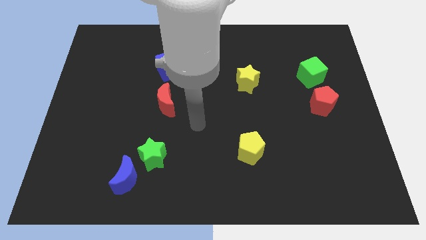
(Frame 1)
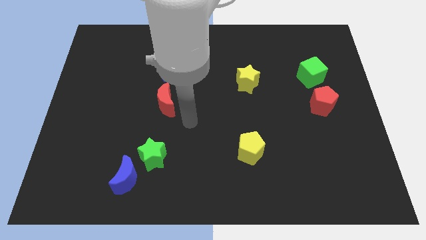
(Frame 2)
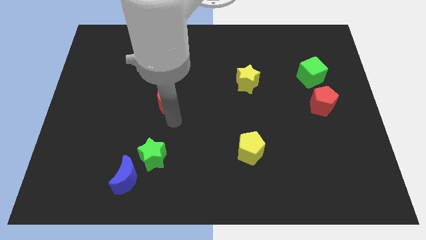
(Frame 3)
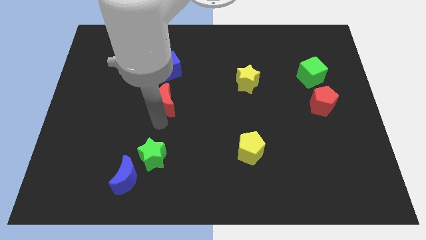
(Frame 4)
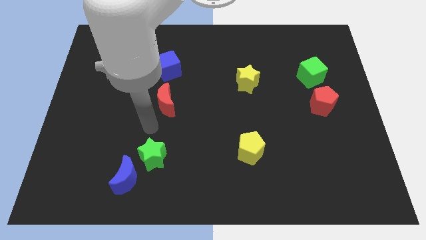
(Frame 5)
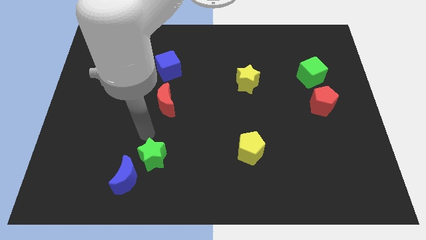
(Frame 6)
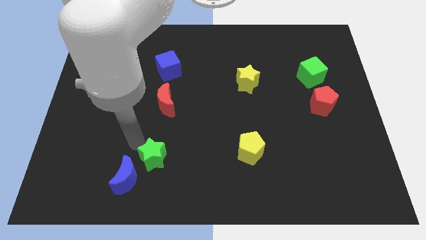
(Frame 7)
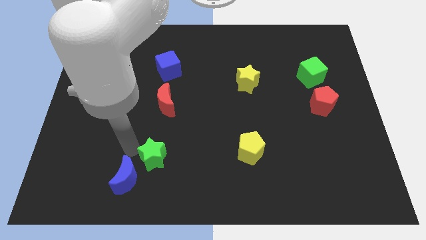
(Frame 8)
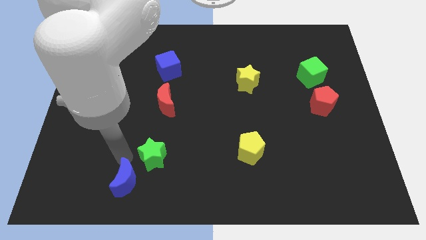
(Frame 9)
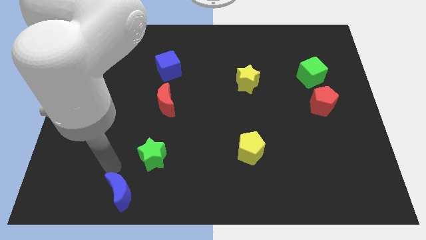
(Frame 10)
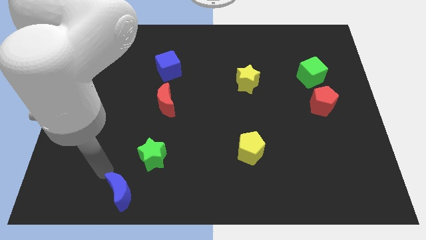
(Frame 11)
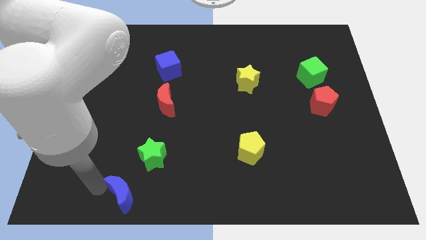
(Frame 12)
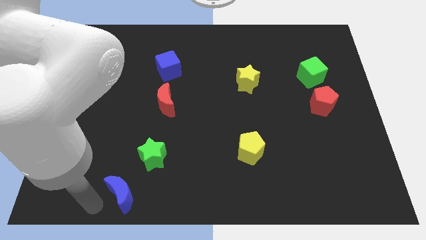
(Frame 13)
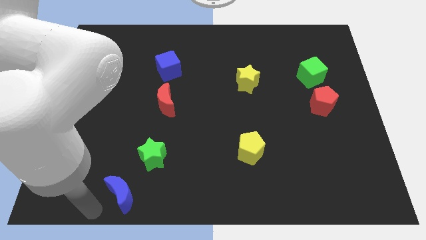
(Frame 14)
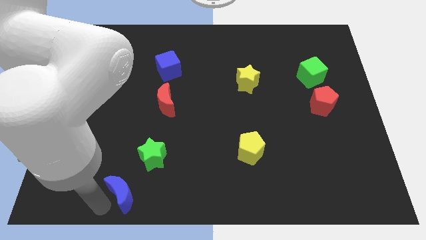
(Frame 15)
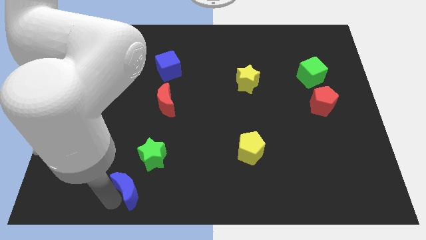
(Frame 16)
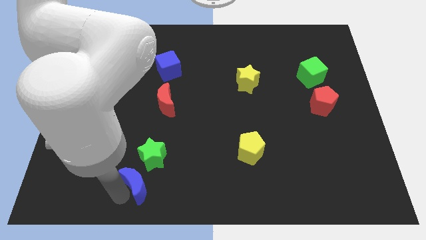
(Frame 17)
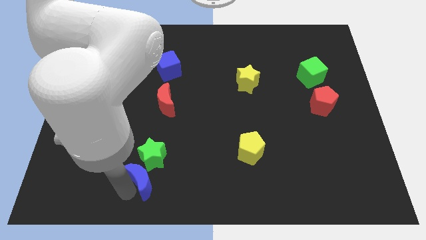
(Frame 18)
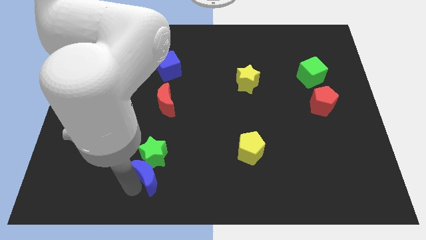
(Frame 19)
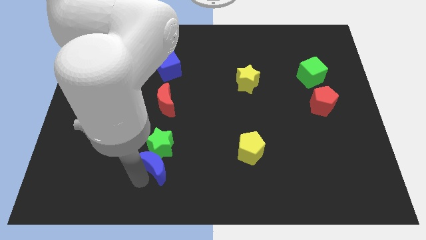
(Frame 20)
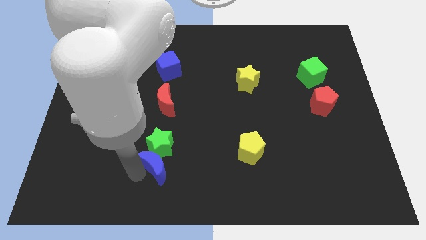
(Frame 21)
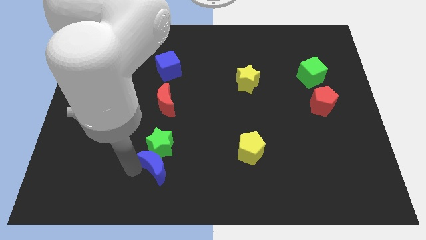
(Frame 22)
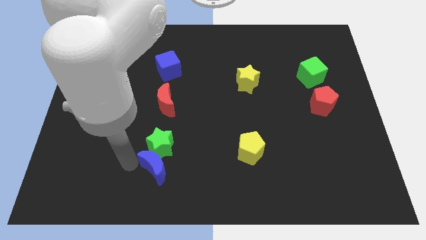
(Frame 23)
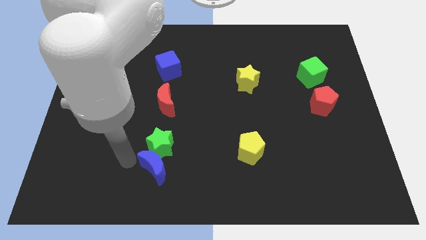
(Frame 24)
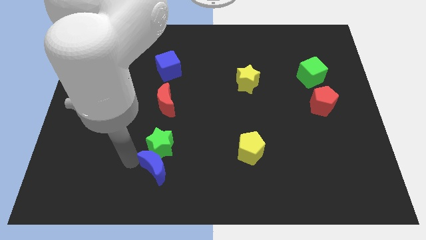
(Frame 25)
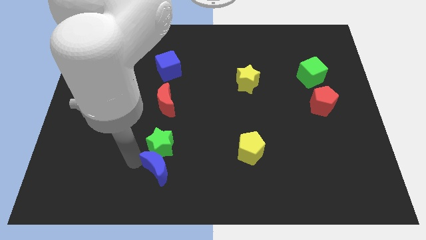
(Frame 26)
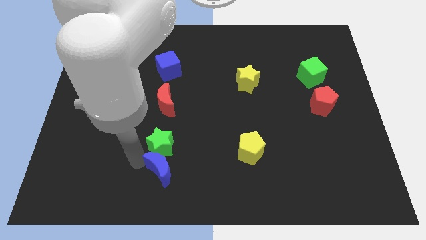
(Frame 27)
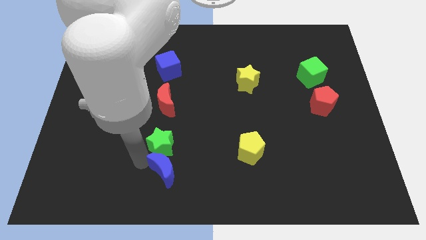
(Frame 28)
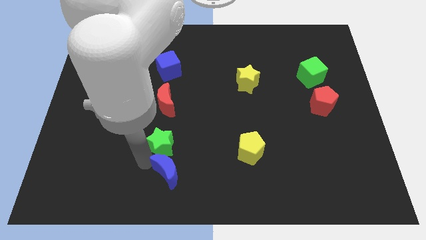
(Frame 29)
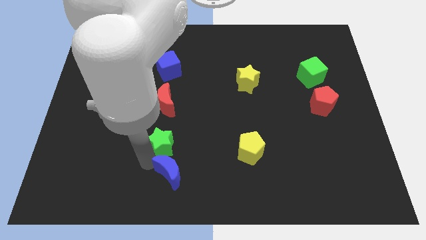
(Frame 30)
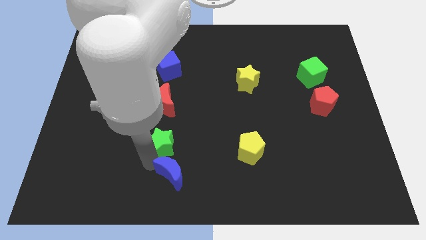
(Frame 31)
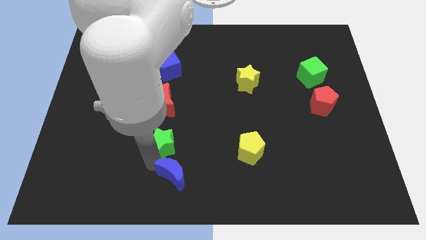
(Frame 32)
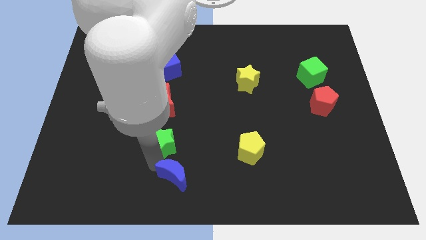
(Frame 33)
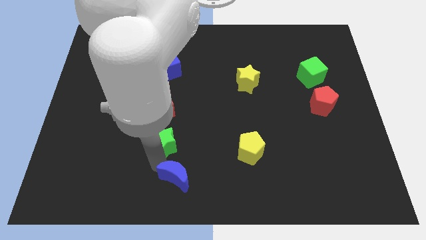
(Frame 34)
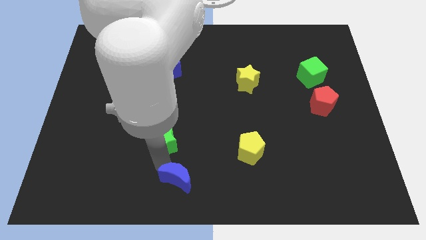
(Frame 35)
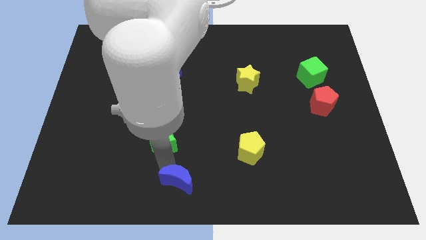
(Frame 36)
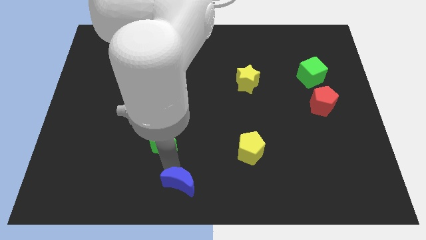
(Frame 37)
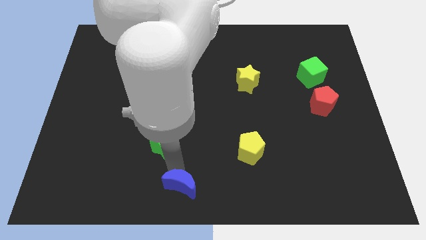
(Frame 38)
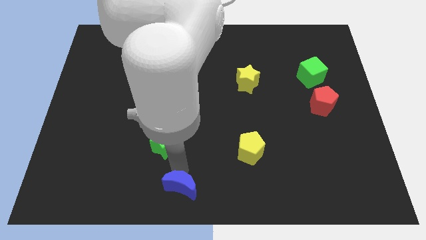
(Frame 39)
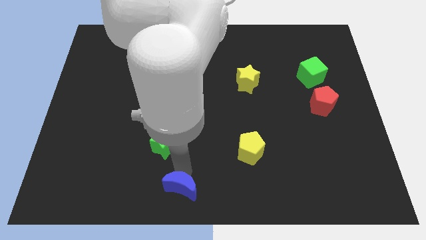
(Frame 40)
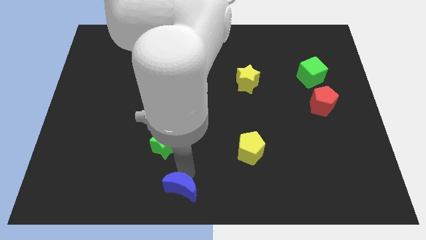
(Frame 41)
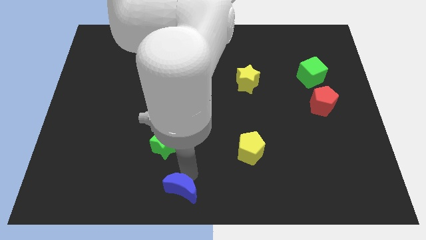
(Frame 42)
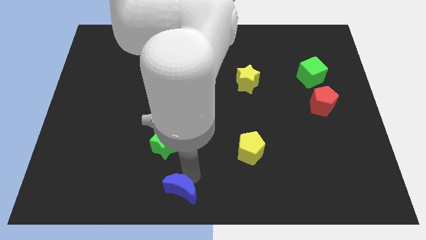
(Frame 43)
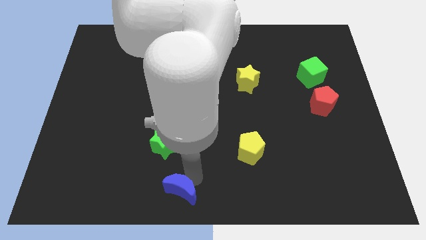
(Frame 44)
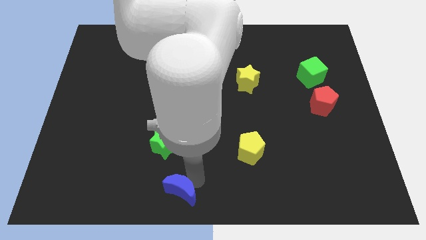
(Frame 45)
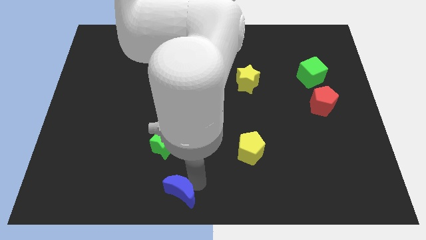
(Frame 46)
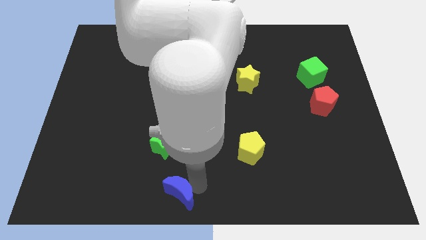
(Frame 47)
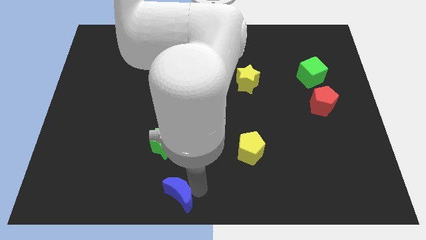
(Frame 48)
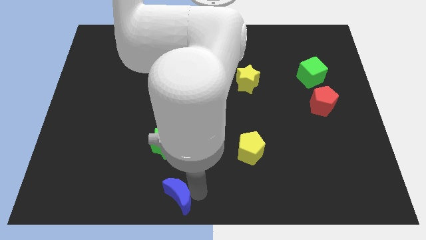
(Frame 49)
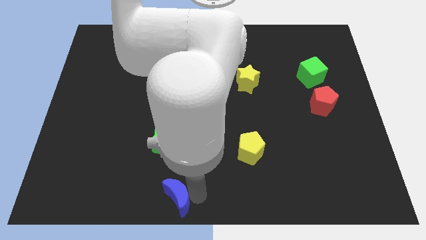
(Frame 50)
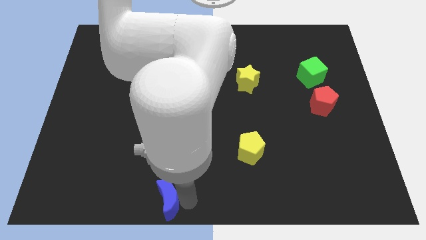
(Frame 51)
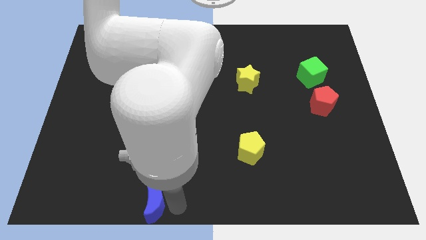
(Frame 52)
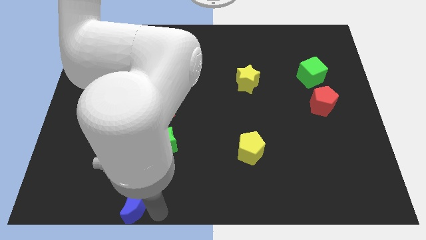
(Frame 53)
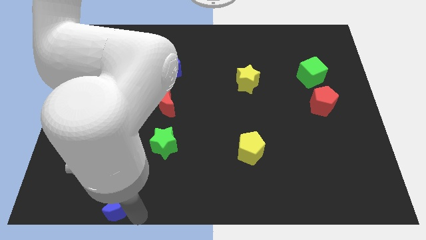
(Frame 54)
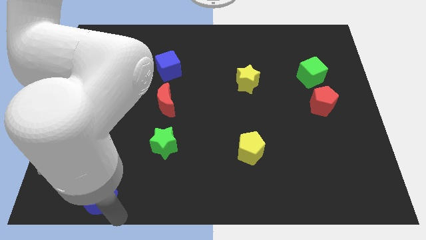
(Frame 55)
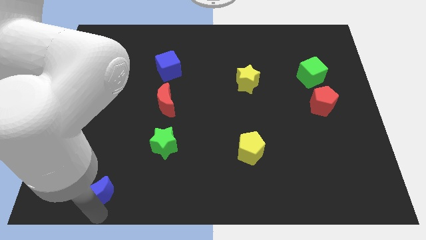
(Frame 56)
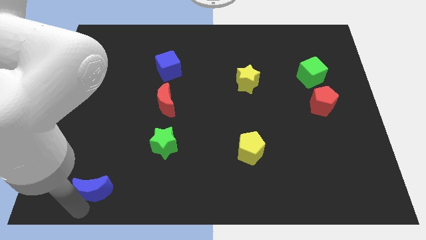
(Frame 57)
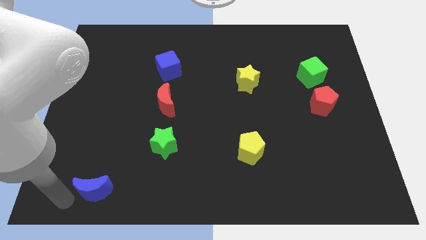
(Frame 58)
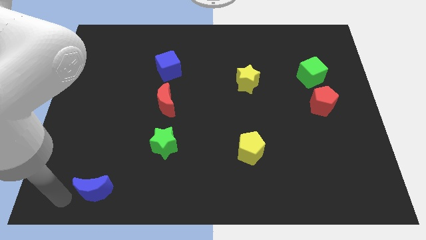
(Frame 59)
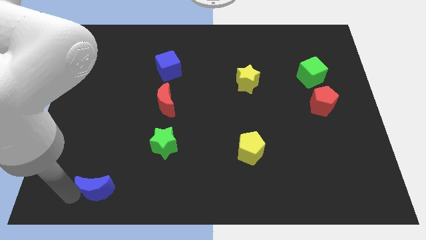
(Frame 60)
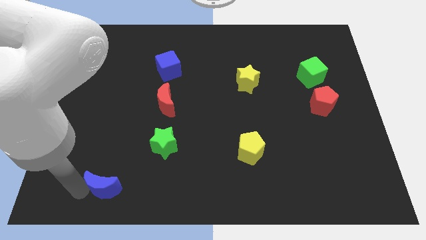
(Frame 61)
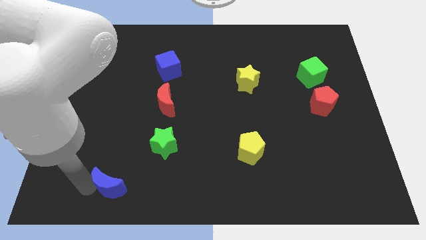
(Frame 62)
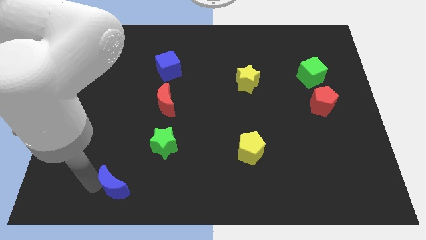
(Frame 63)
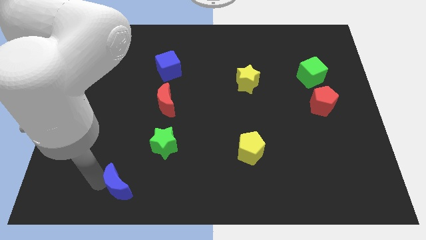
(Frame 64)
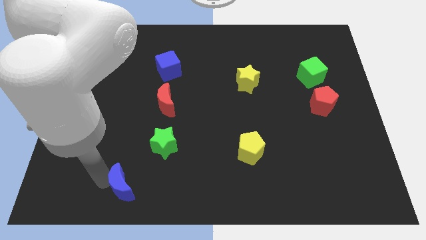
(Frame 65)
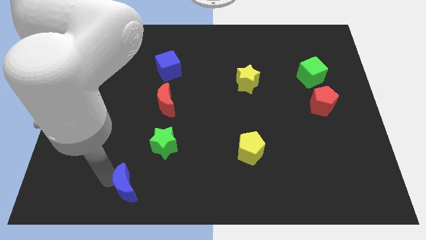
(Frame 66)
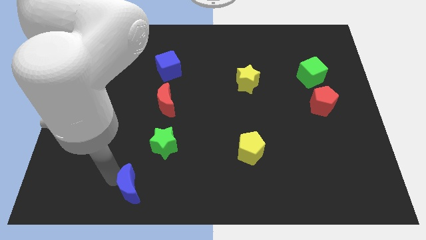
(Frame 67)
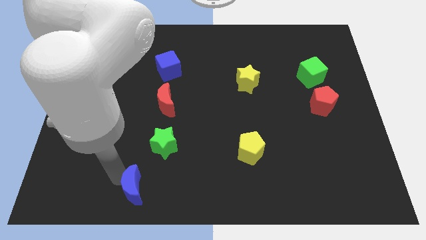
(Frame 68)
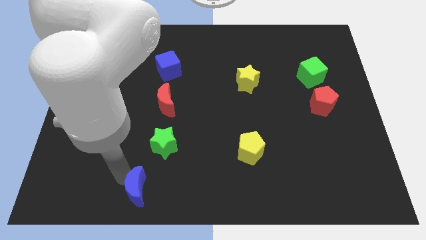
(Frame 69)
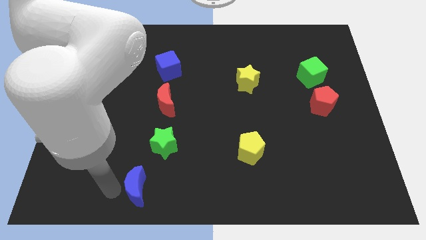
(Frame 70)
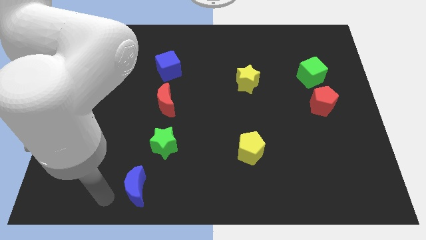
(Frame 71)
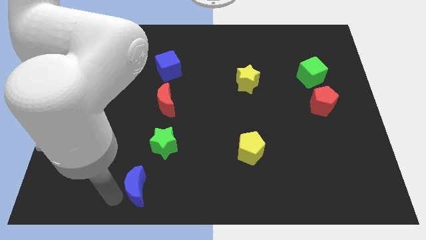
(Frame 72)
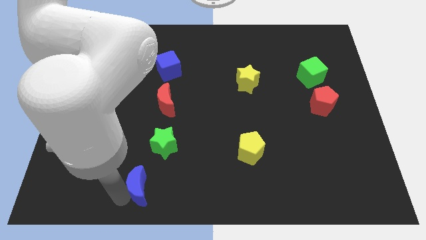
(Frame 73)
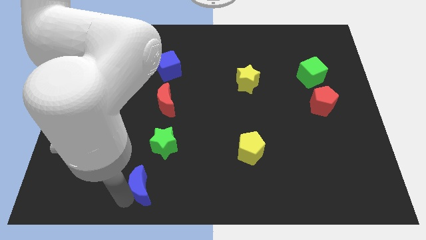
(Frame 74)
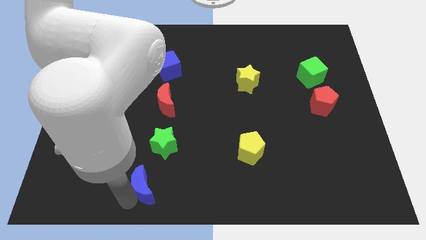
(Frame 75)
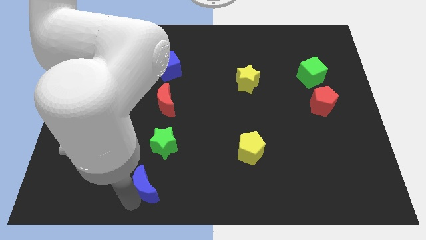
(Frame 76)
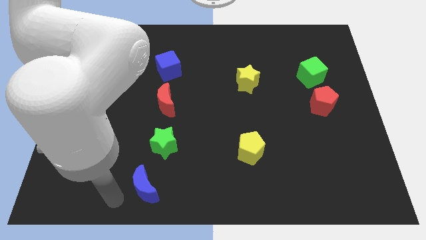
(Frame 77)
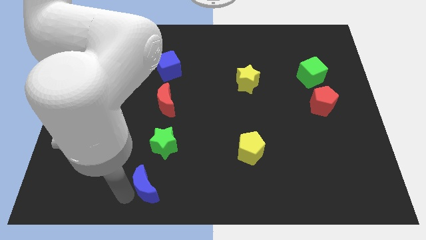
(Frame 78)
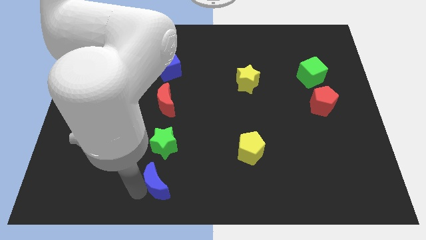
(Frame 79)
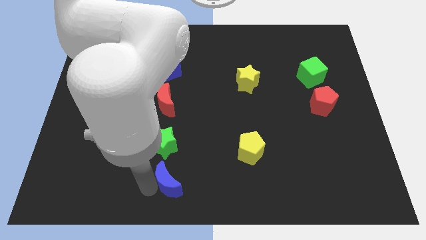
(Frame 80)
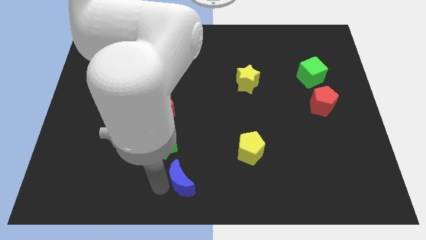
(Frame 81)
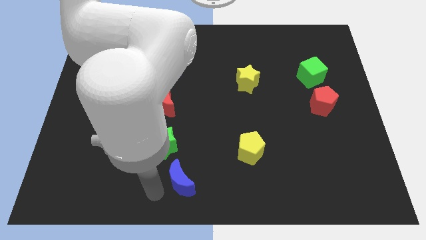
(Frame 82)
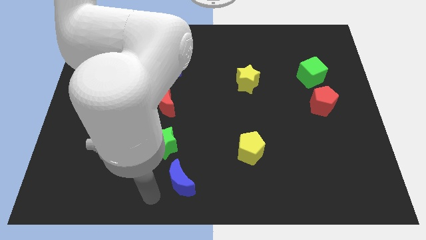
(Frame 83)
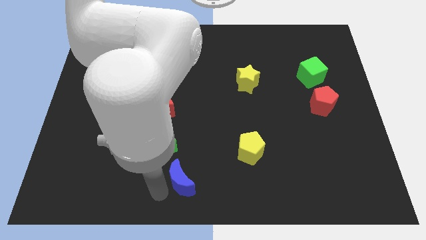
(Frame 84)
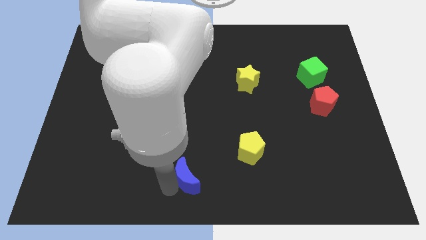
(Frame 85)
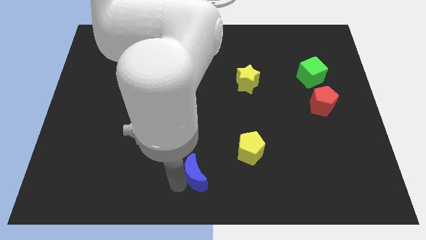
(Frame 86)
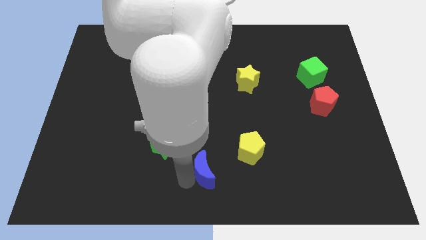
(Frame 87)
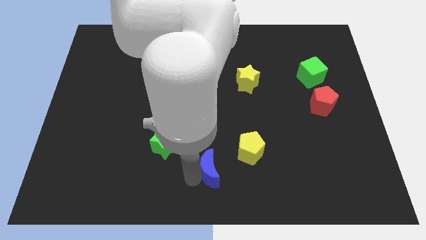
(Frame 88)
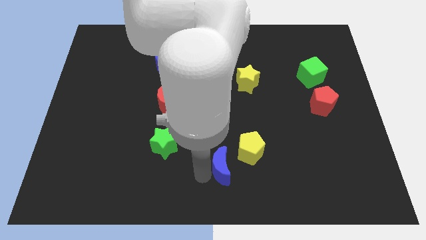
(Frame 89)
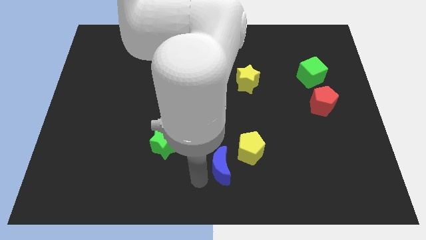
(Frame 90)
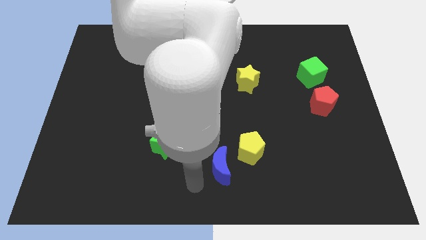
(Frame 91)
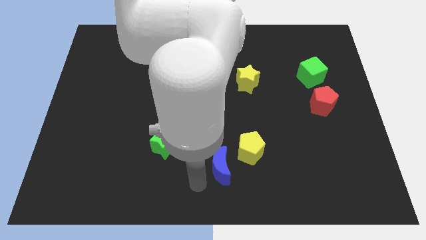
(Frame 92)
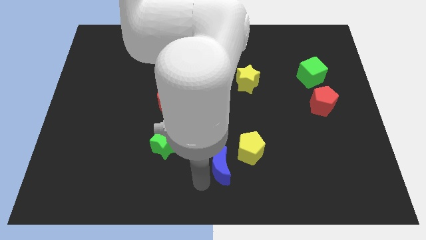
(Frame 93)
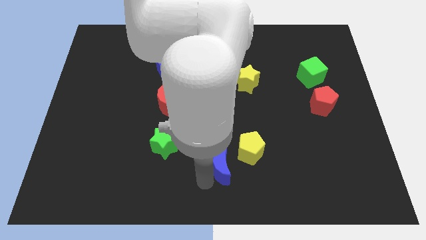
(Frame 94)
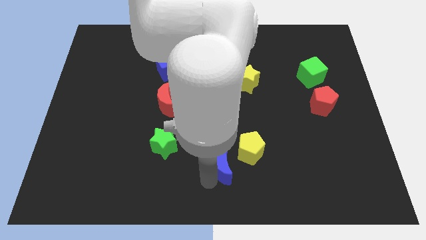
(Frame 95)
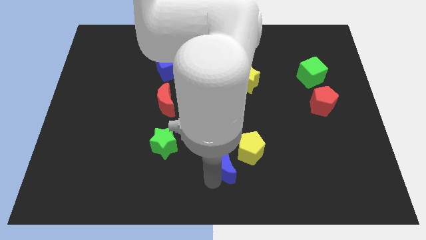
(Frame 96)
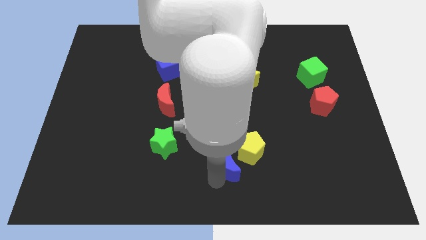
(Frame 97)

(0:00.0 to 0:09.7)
put the blue moon close to the yellow pentagon
